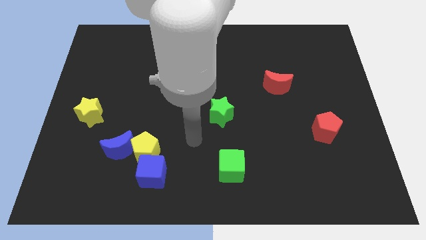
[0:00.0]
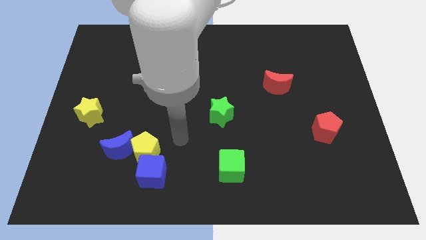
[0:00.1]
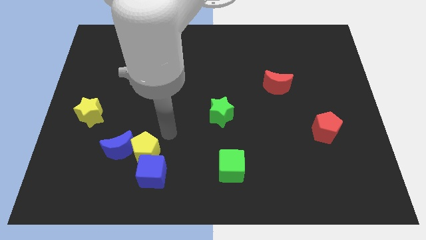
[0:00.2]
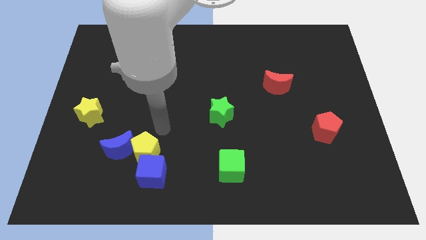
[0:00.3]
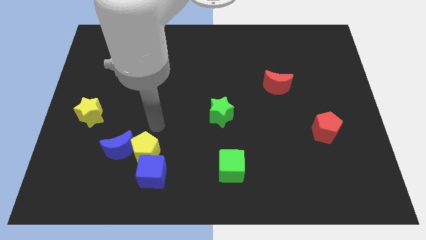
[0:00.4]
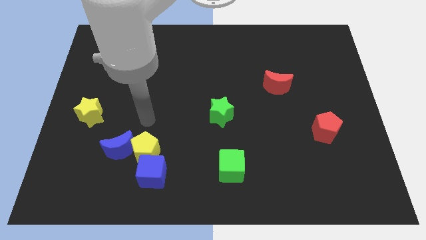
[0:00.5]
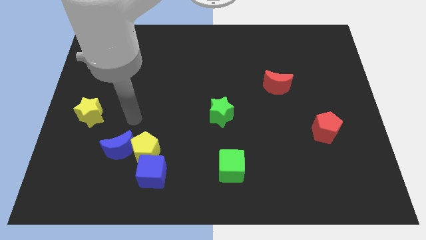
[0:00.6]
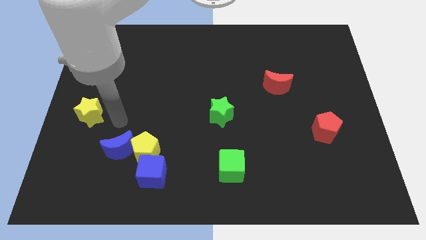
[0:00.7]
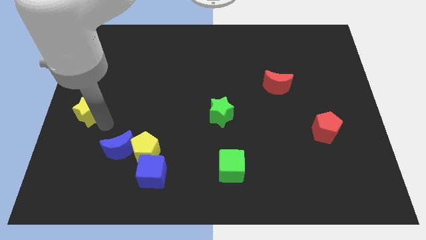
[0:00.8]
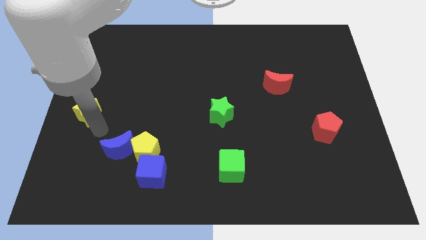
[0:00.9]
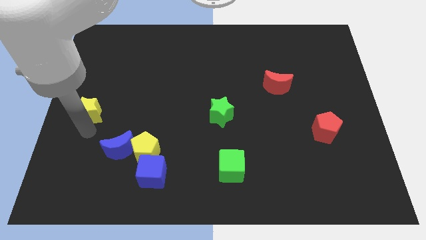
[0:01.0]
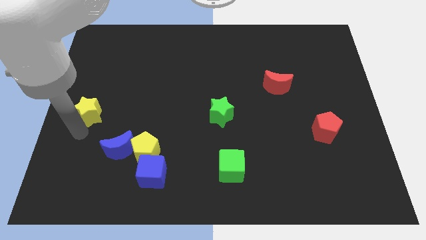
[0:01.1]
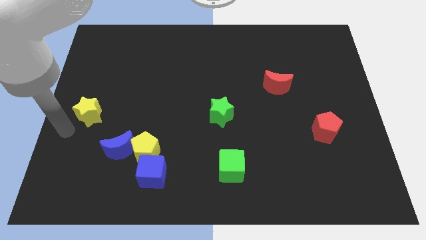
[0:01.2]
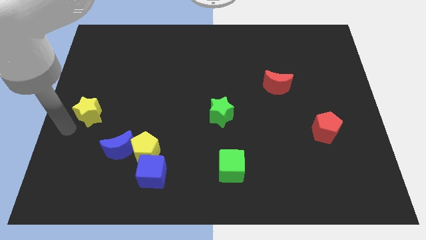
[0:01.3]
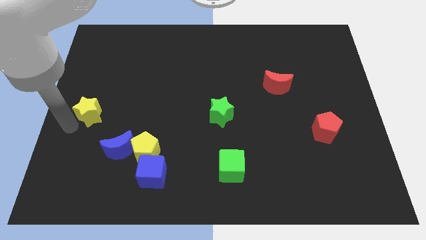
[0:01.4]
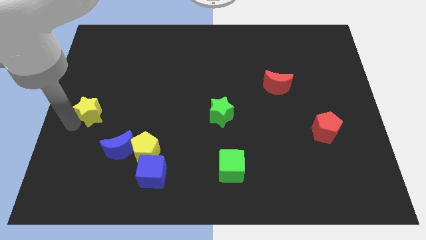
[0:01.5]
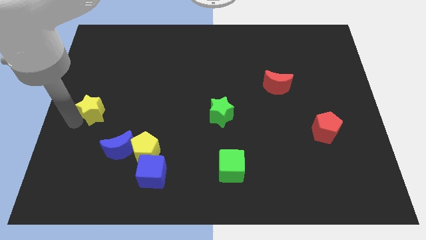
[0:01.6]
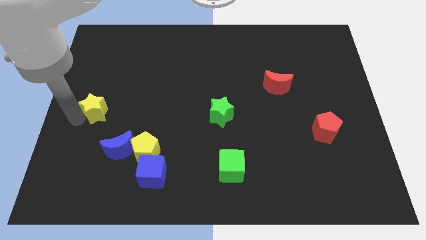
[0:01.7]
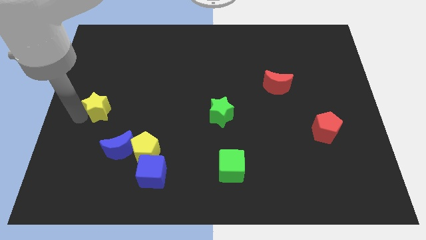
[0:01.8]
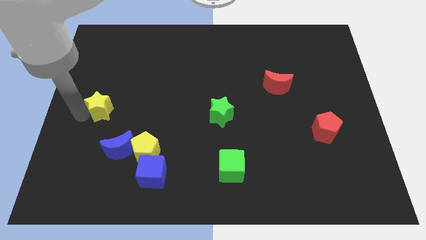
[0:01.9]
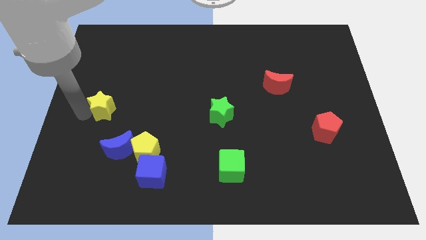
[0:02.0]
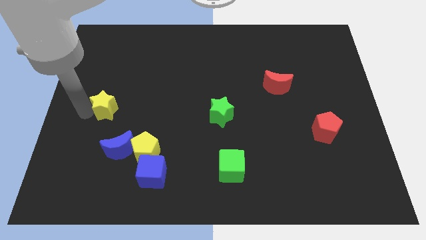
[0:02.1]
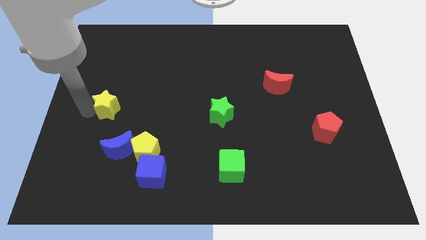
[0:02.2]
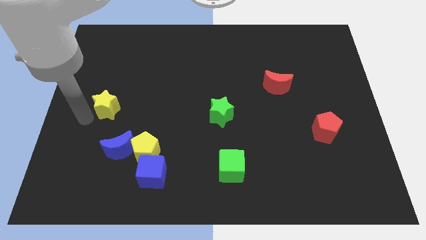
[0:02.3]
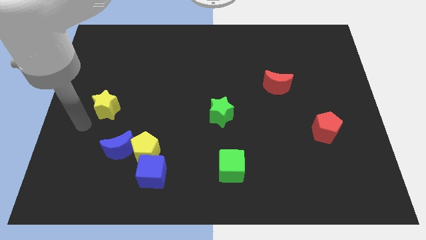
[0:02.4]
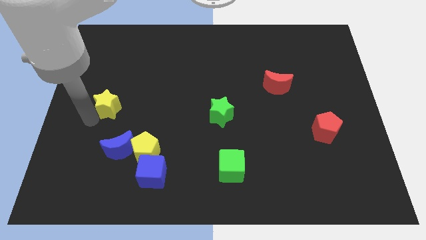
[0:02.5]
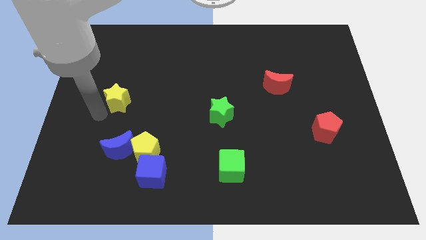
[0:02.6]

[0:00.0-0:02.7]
move the yellow star upwards and right slightly

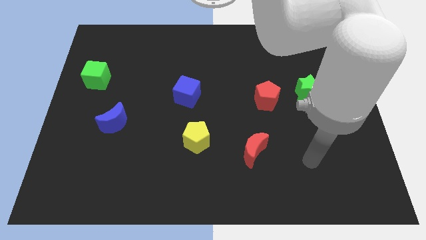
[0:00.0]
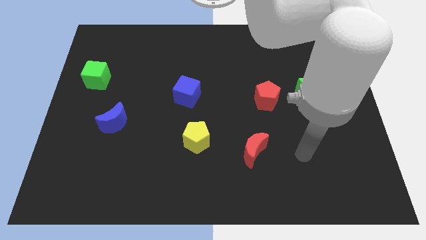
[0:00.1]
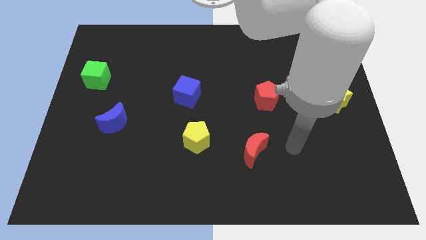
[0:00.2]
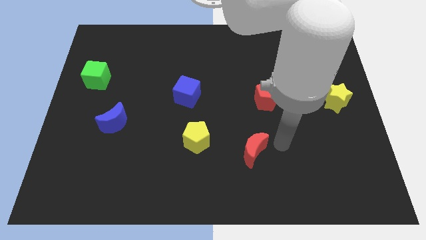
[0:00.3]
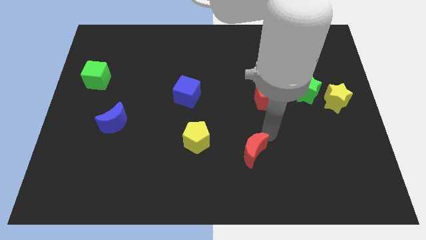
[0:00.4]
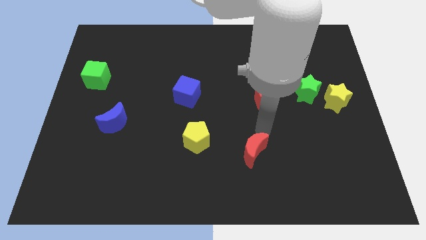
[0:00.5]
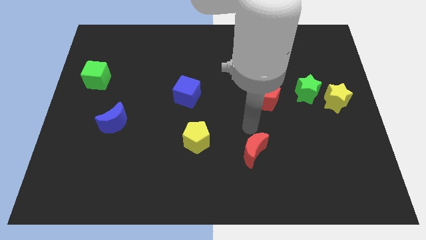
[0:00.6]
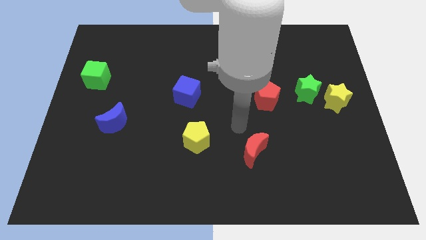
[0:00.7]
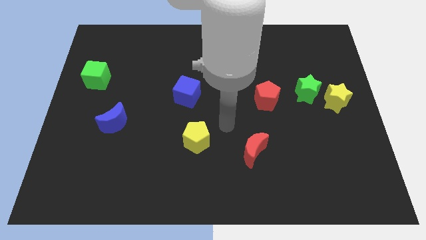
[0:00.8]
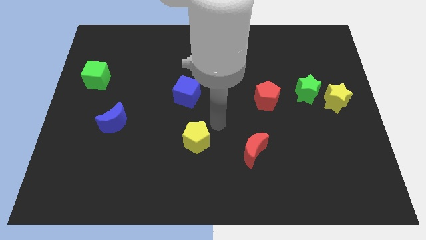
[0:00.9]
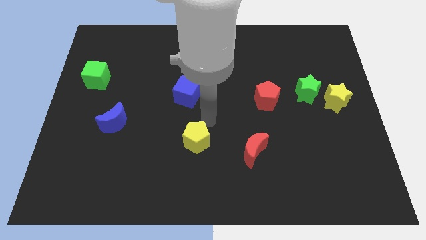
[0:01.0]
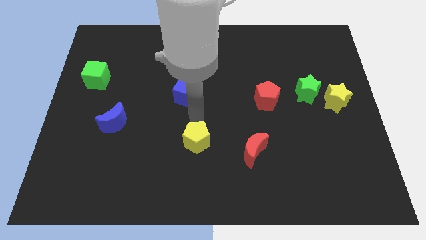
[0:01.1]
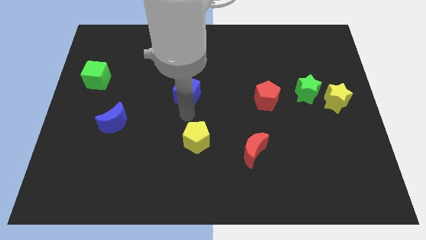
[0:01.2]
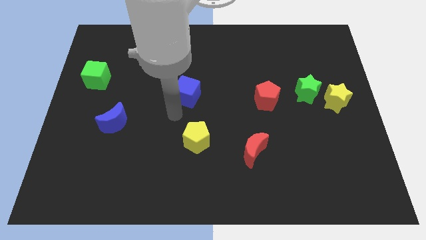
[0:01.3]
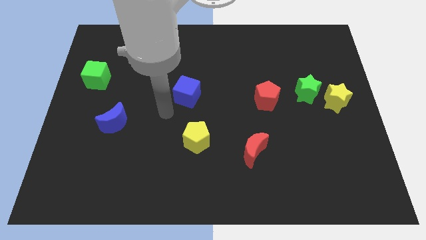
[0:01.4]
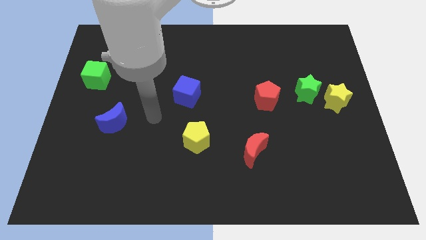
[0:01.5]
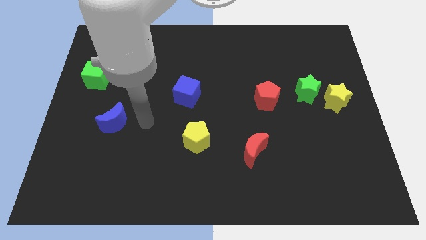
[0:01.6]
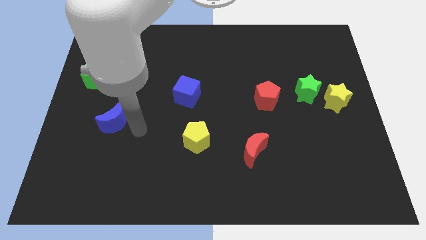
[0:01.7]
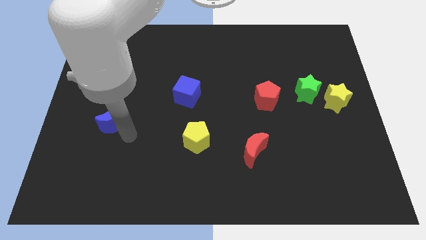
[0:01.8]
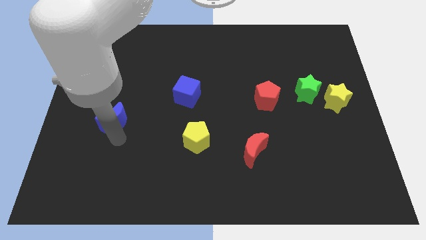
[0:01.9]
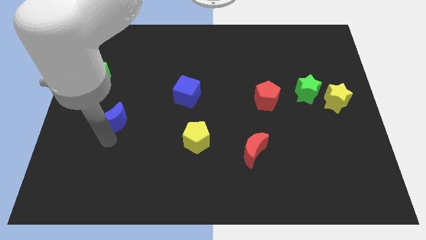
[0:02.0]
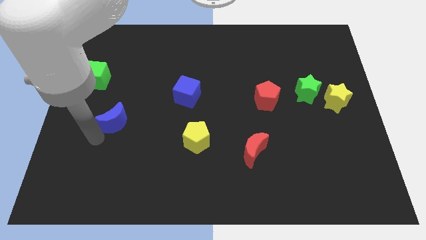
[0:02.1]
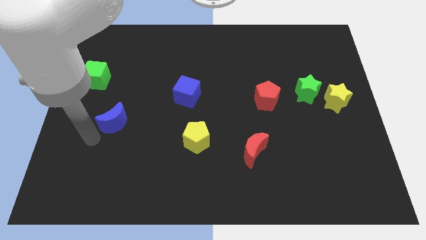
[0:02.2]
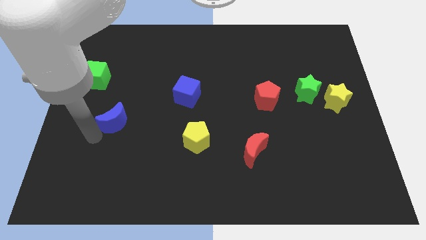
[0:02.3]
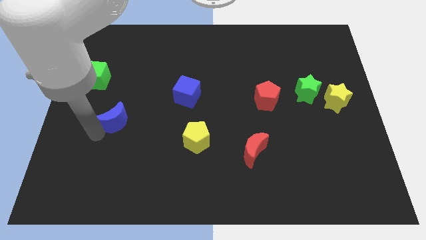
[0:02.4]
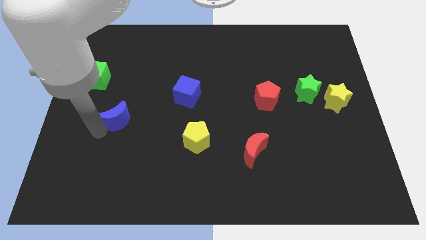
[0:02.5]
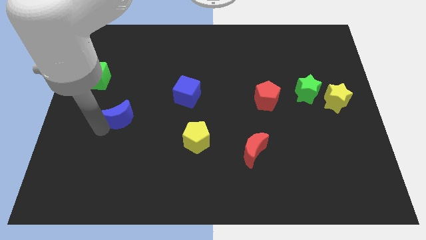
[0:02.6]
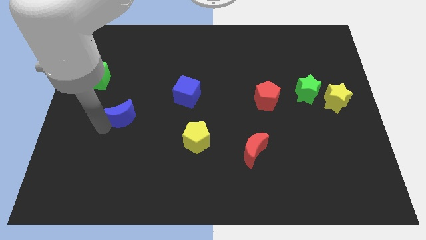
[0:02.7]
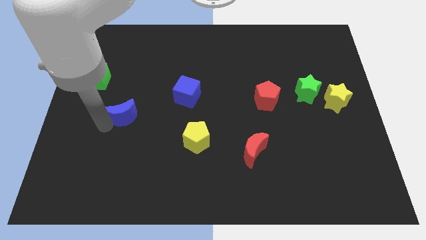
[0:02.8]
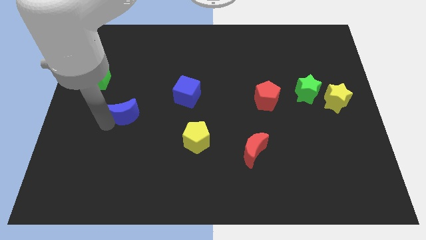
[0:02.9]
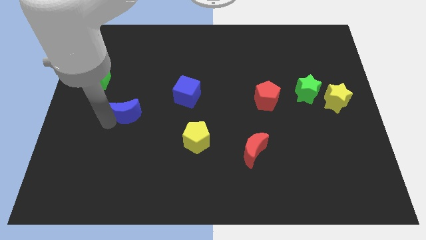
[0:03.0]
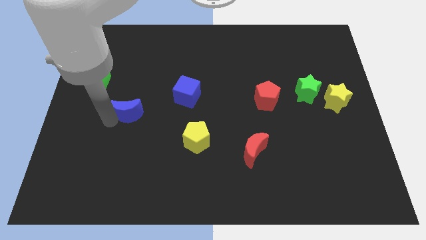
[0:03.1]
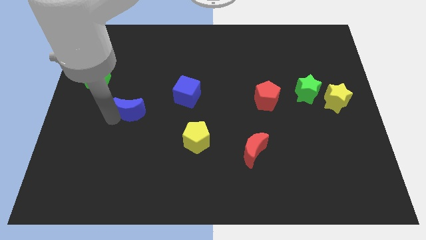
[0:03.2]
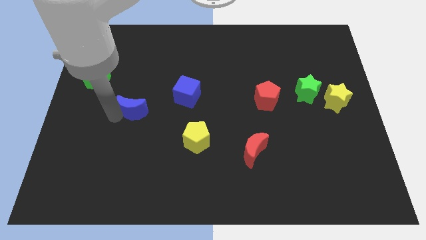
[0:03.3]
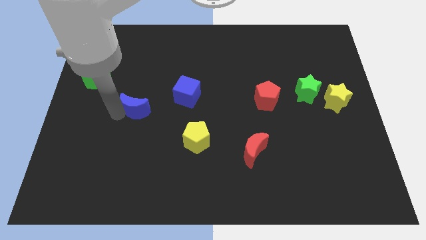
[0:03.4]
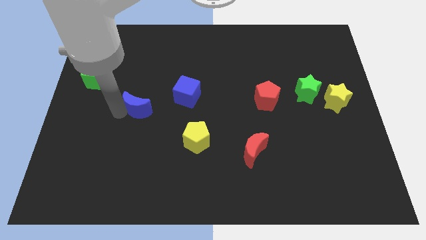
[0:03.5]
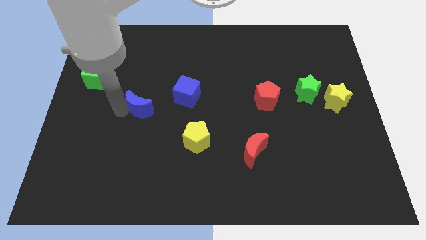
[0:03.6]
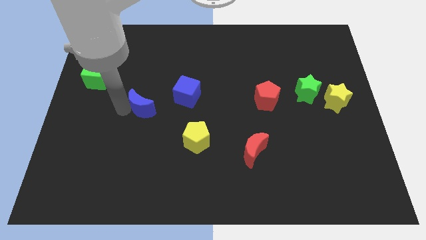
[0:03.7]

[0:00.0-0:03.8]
slightly move the blue moon diagonally up and right

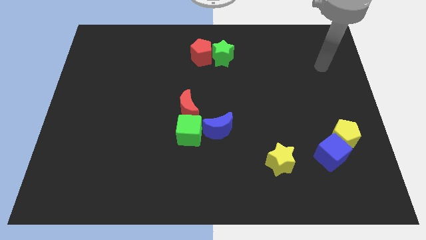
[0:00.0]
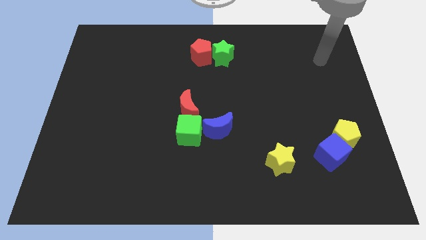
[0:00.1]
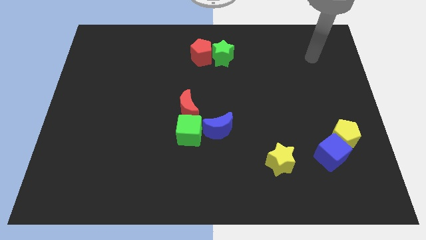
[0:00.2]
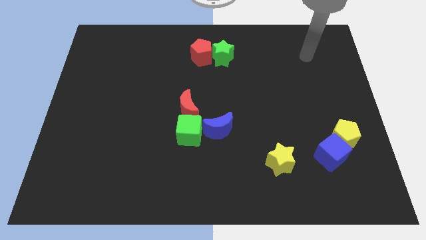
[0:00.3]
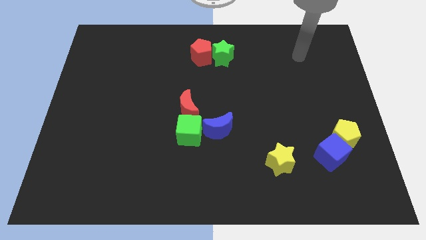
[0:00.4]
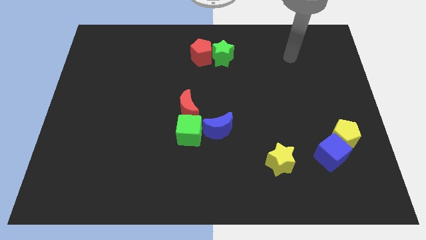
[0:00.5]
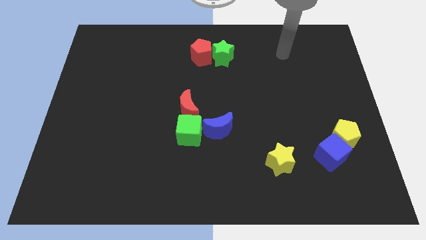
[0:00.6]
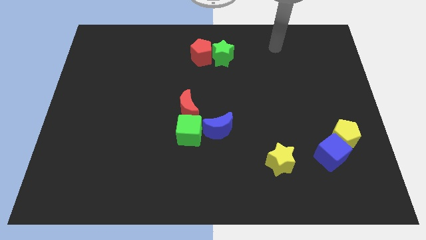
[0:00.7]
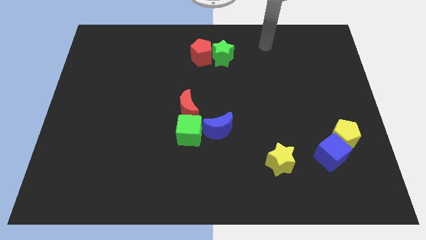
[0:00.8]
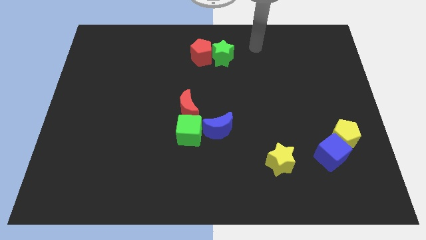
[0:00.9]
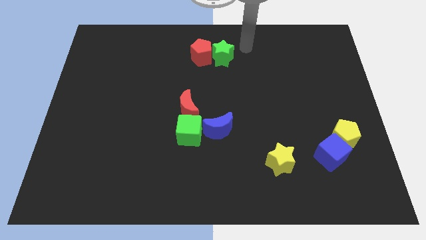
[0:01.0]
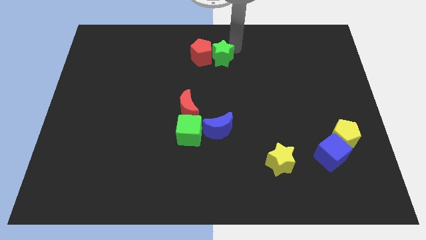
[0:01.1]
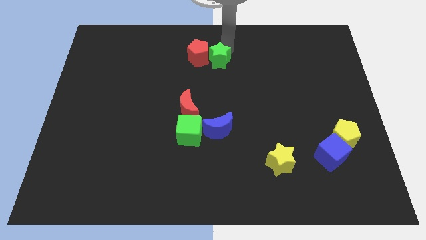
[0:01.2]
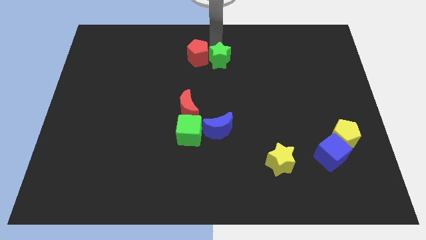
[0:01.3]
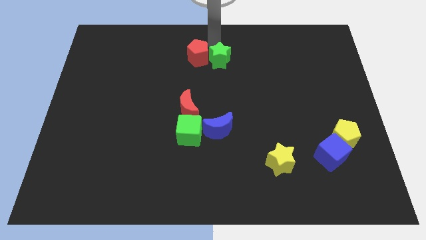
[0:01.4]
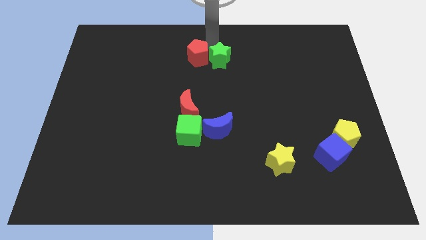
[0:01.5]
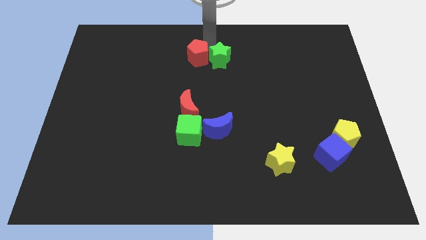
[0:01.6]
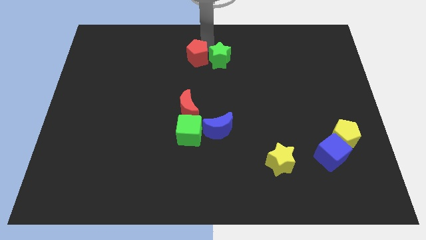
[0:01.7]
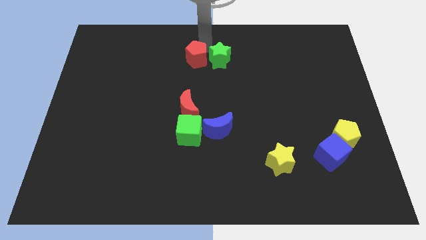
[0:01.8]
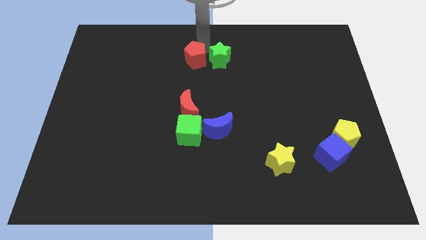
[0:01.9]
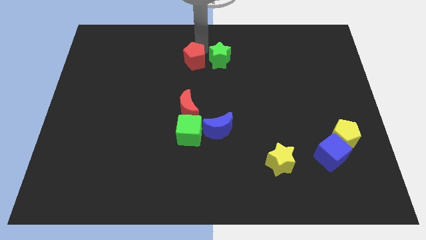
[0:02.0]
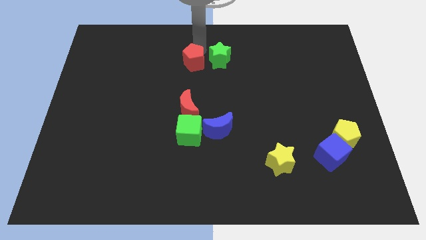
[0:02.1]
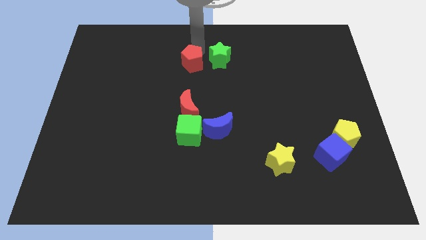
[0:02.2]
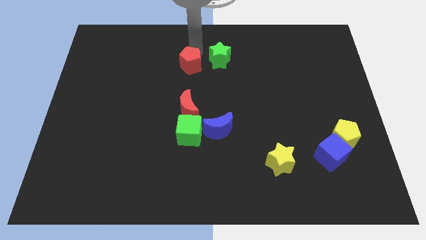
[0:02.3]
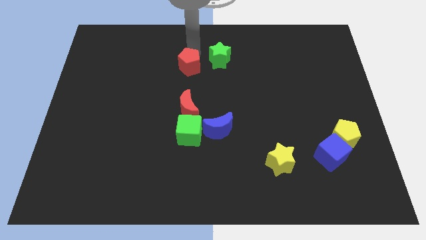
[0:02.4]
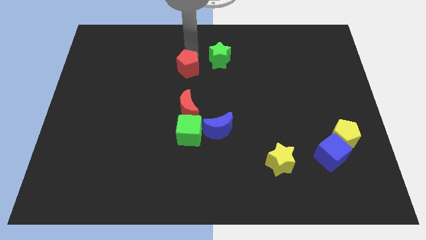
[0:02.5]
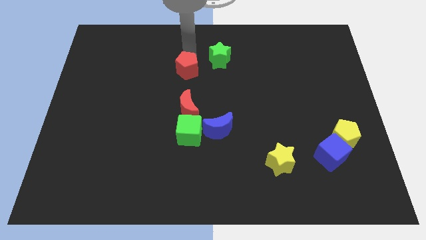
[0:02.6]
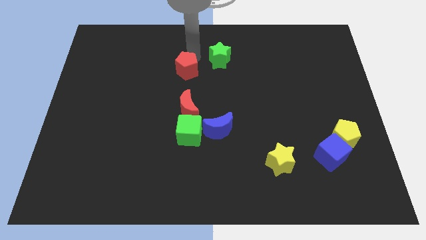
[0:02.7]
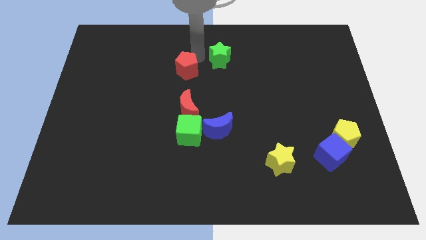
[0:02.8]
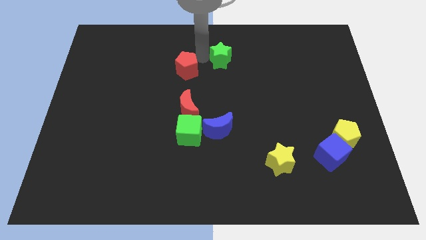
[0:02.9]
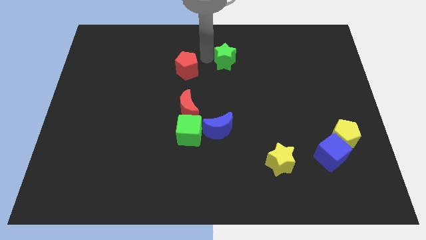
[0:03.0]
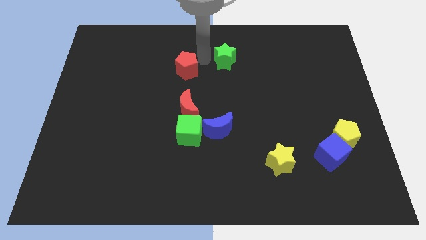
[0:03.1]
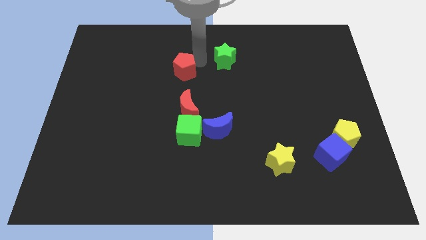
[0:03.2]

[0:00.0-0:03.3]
slightly move the red pentagon downwards and left diagonally
